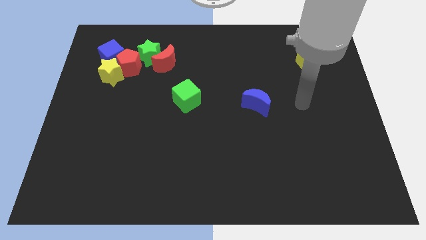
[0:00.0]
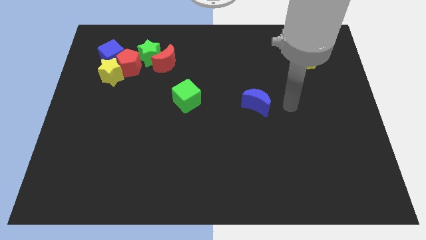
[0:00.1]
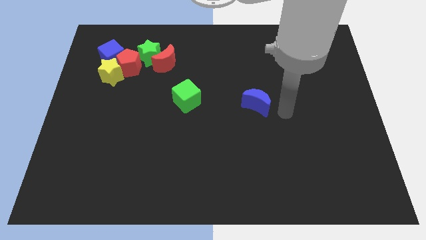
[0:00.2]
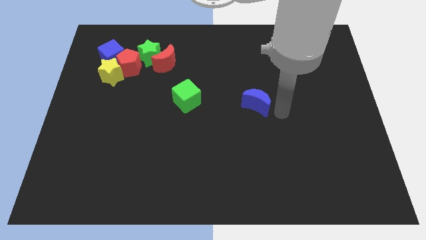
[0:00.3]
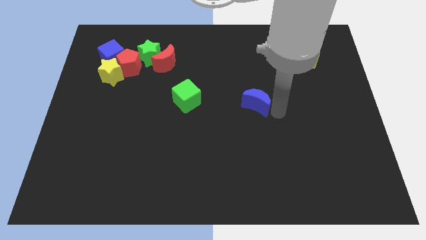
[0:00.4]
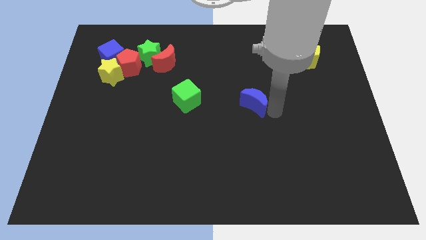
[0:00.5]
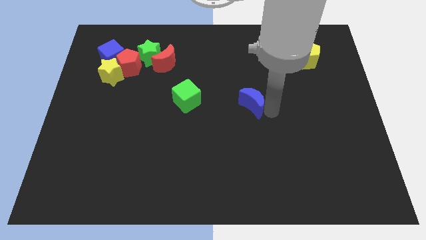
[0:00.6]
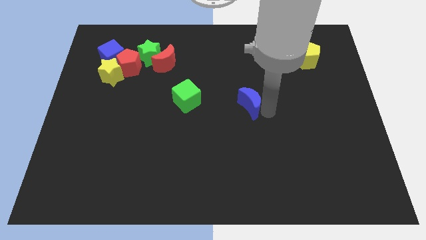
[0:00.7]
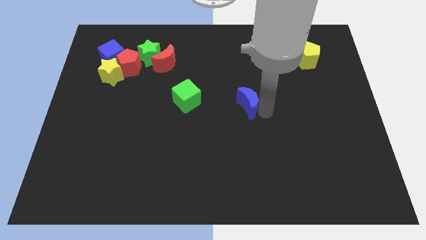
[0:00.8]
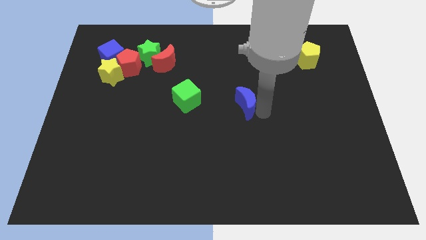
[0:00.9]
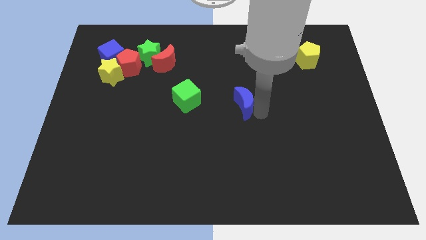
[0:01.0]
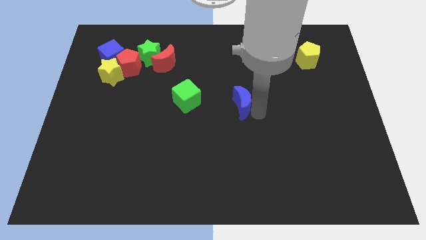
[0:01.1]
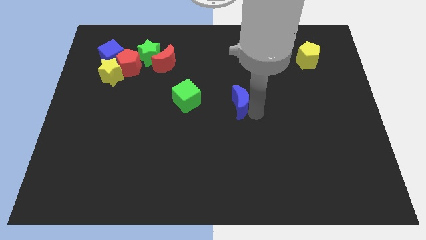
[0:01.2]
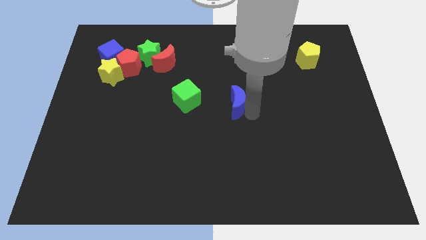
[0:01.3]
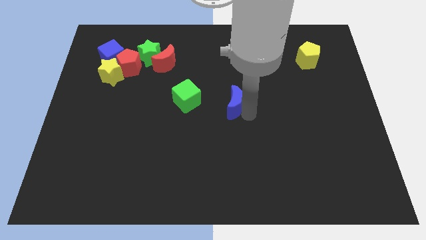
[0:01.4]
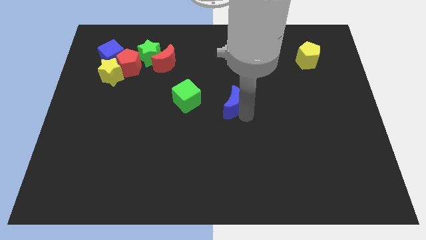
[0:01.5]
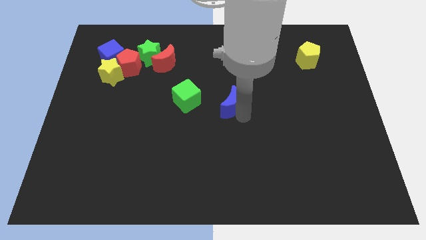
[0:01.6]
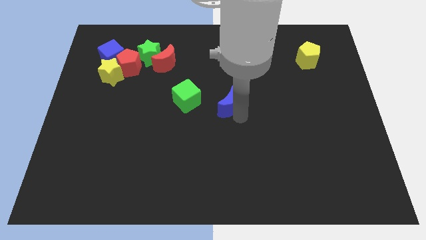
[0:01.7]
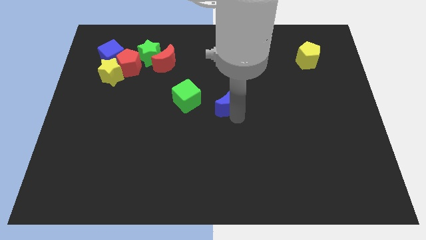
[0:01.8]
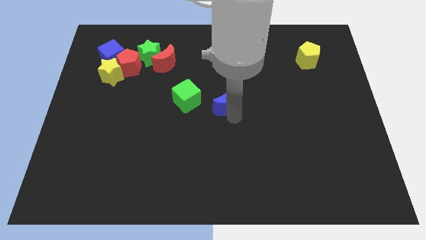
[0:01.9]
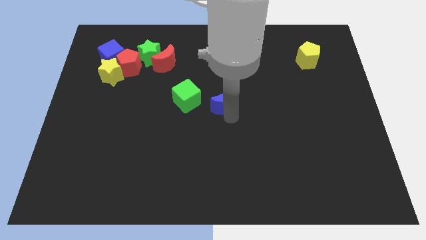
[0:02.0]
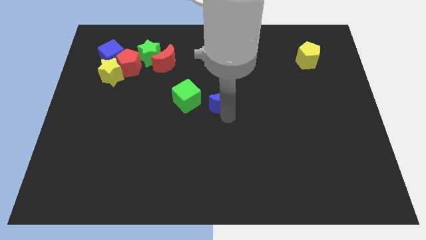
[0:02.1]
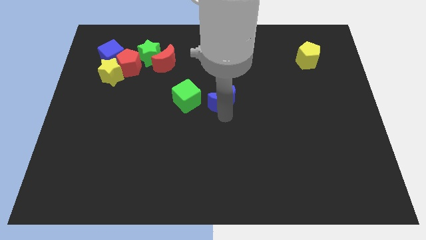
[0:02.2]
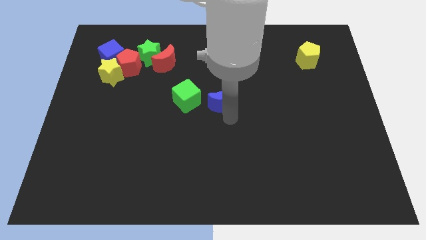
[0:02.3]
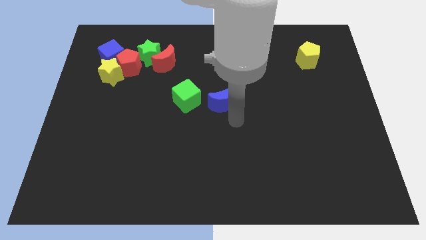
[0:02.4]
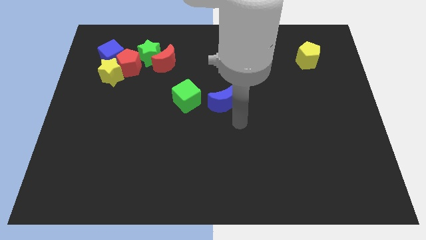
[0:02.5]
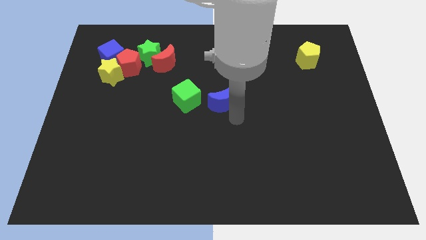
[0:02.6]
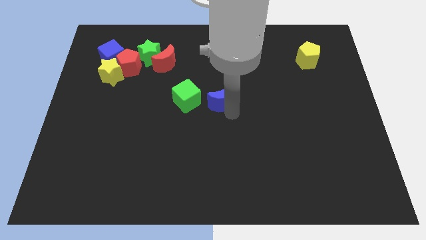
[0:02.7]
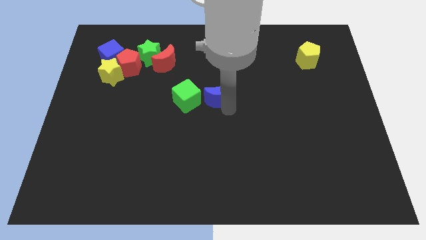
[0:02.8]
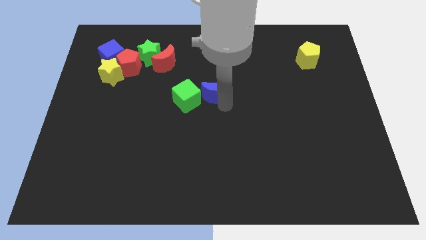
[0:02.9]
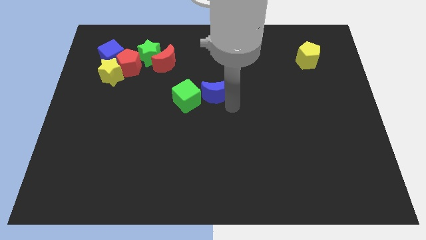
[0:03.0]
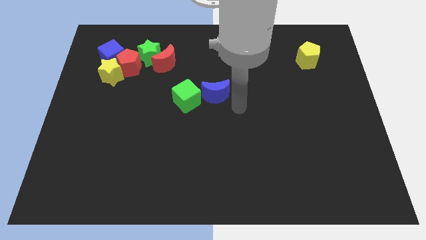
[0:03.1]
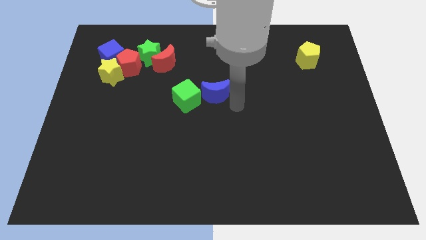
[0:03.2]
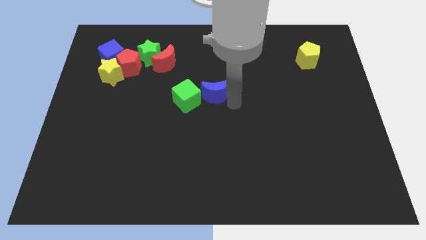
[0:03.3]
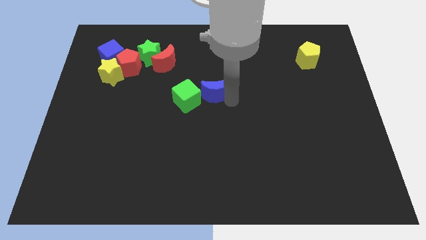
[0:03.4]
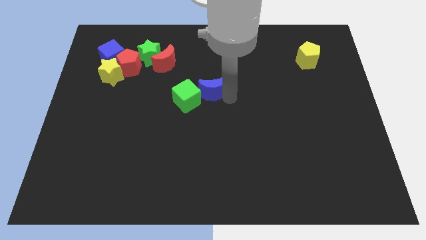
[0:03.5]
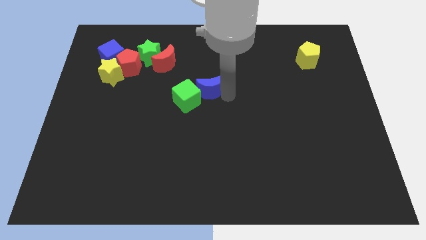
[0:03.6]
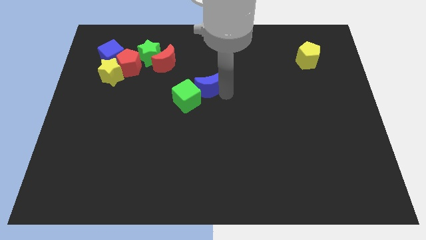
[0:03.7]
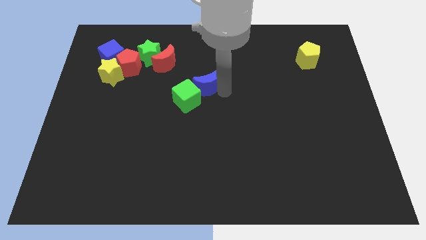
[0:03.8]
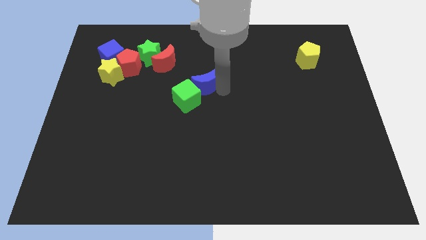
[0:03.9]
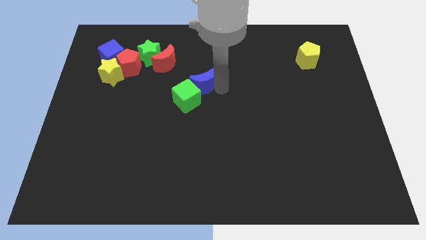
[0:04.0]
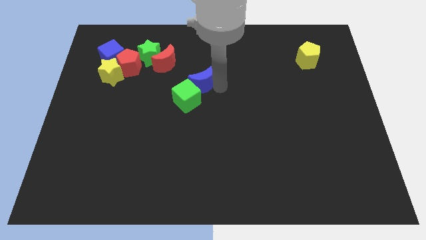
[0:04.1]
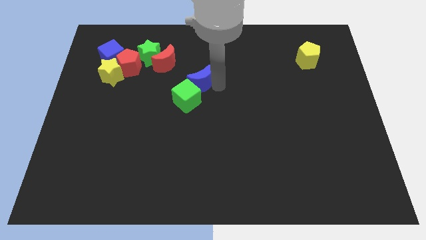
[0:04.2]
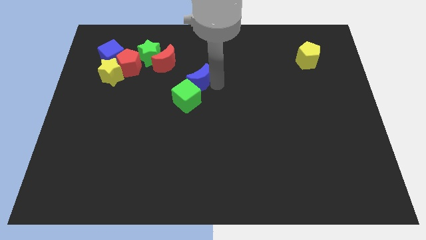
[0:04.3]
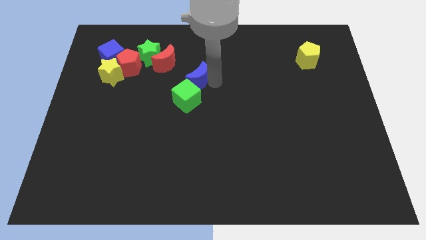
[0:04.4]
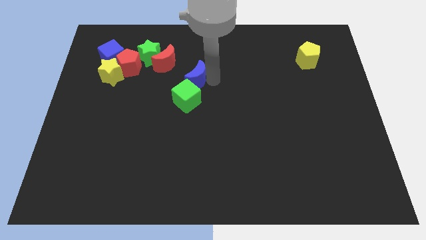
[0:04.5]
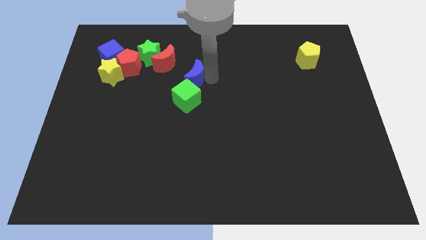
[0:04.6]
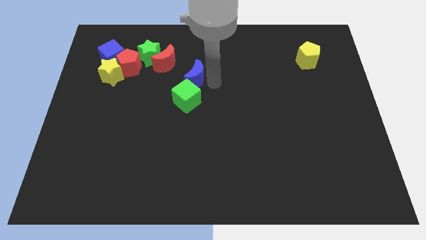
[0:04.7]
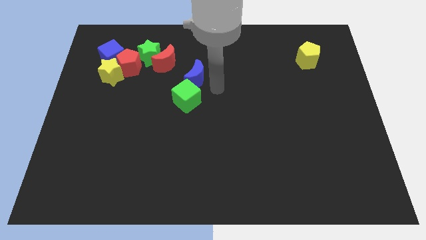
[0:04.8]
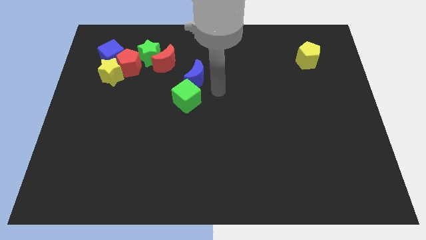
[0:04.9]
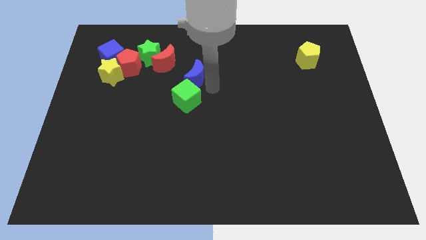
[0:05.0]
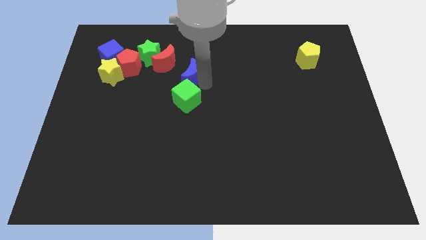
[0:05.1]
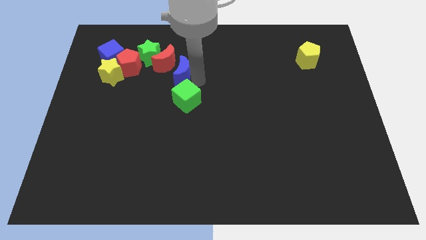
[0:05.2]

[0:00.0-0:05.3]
move the blue moon close to the red moon

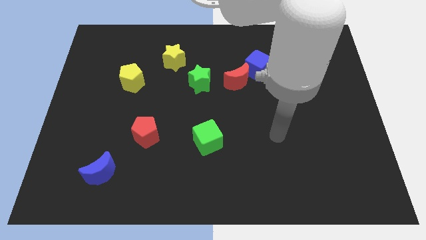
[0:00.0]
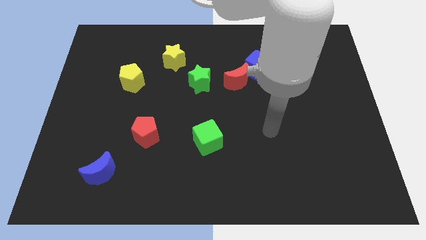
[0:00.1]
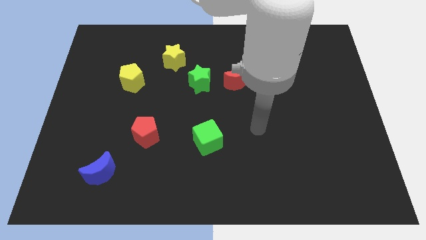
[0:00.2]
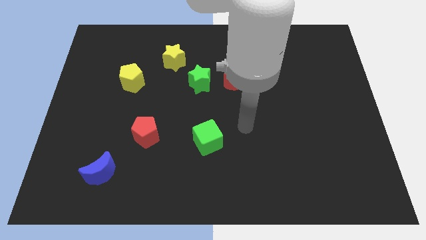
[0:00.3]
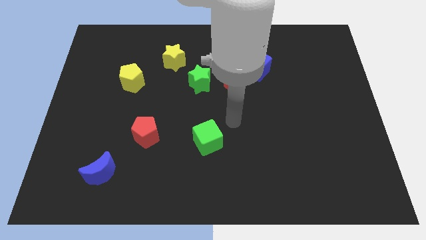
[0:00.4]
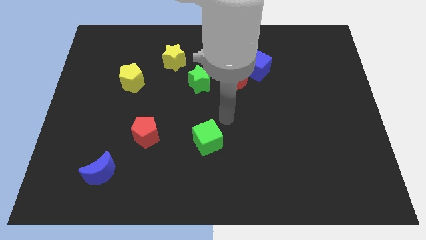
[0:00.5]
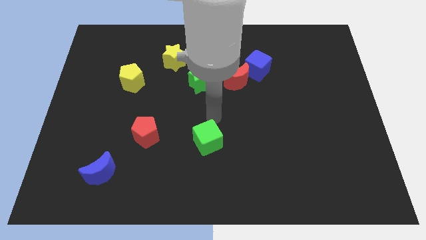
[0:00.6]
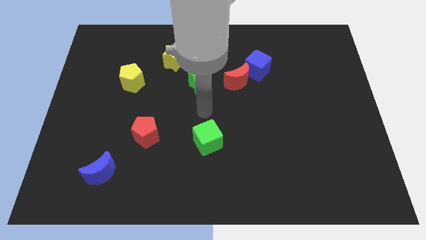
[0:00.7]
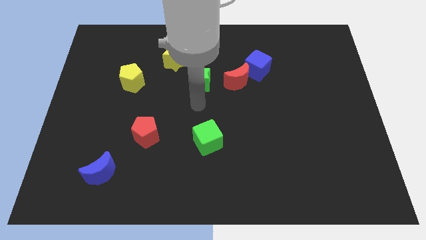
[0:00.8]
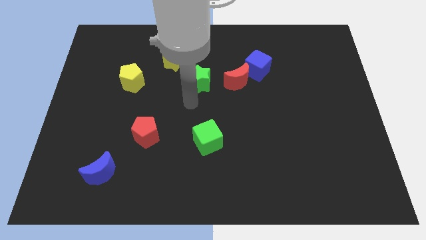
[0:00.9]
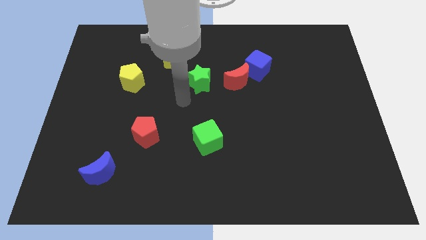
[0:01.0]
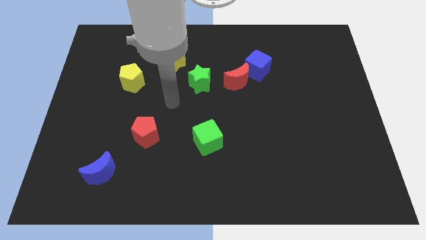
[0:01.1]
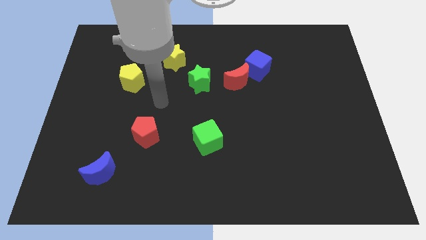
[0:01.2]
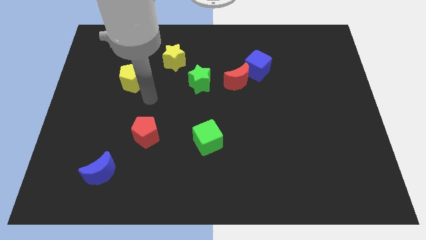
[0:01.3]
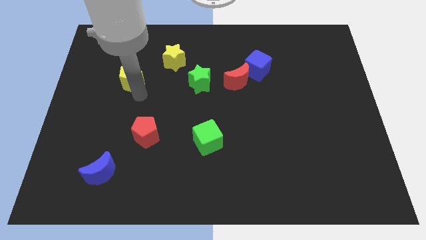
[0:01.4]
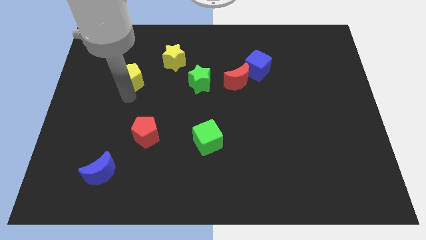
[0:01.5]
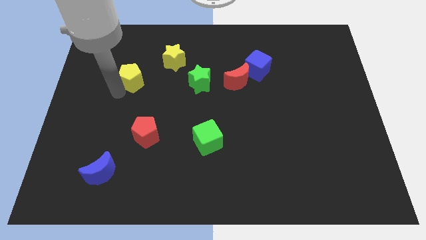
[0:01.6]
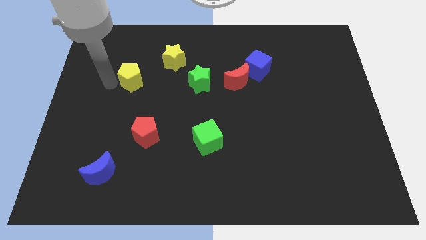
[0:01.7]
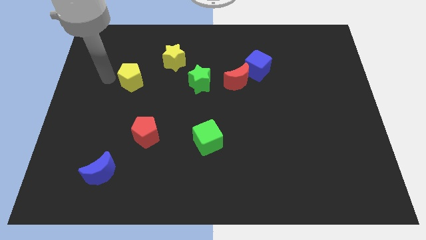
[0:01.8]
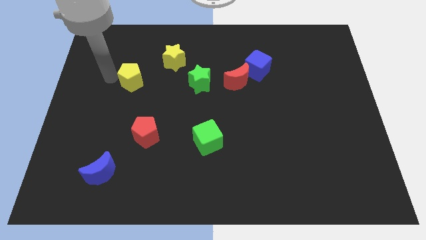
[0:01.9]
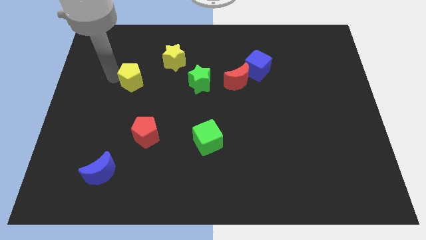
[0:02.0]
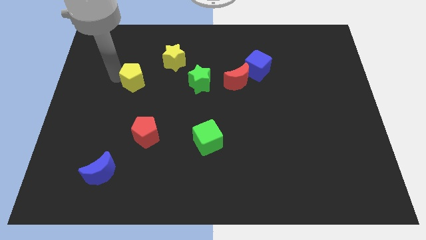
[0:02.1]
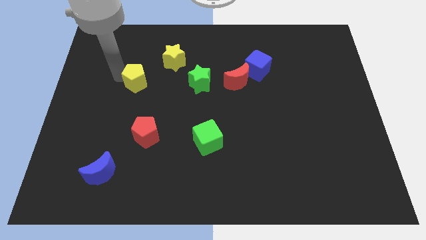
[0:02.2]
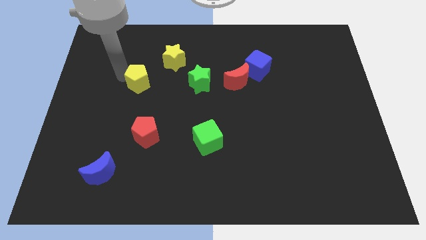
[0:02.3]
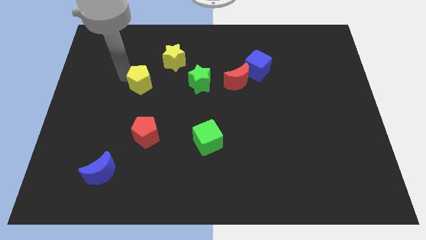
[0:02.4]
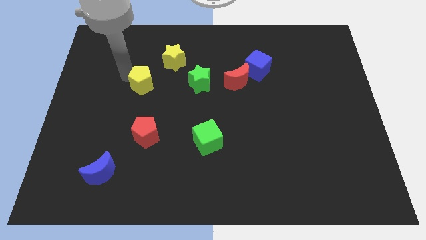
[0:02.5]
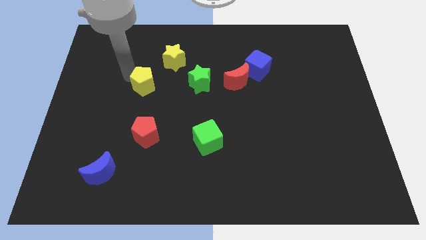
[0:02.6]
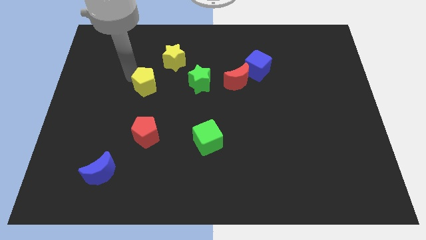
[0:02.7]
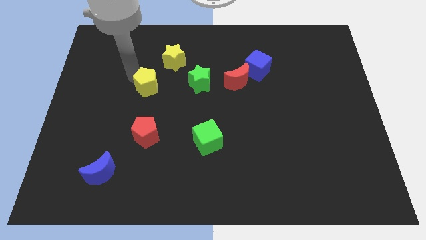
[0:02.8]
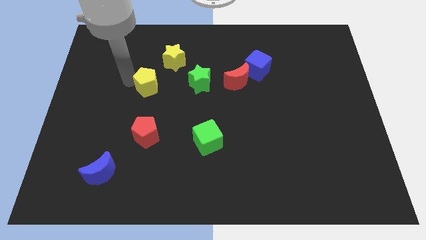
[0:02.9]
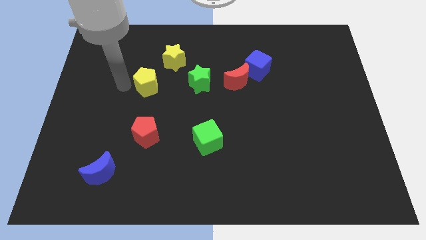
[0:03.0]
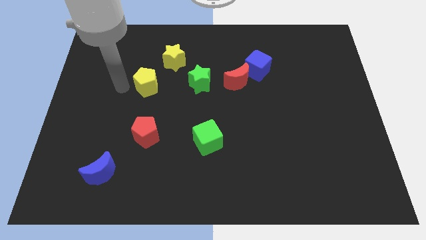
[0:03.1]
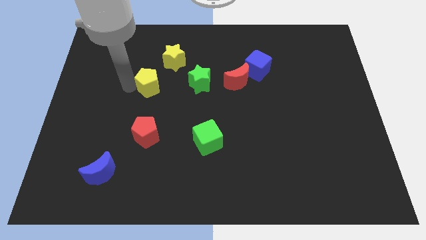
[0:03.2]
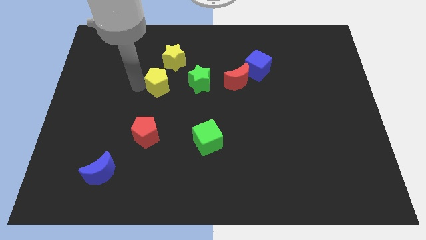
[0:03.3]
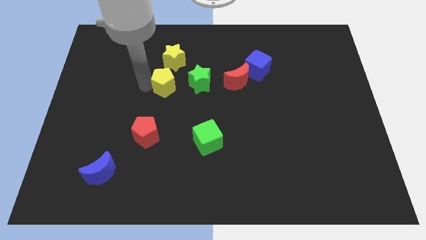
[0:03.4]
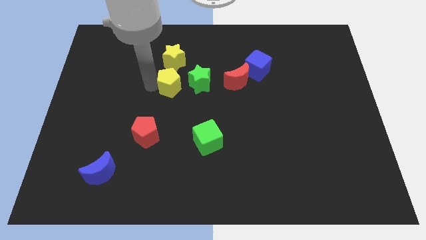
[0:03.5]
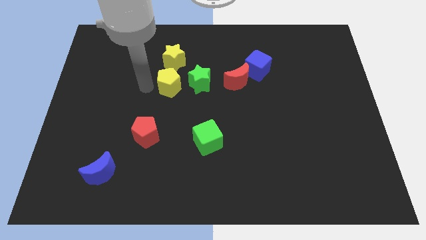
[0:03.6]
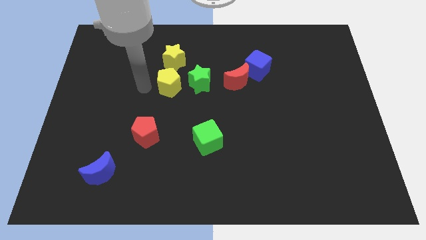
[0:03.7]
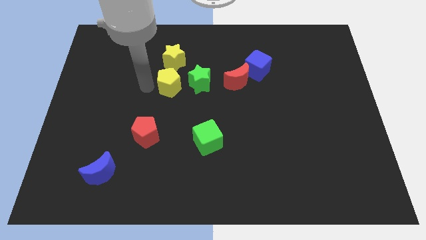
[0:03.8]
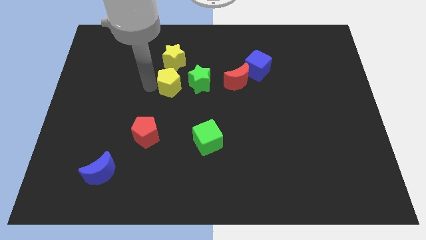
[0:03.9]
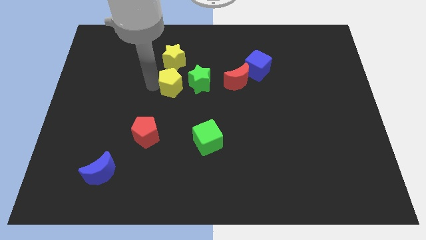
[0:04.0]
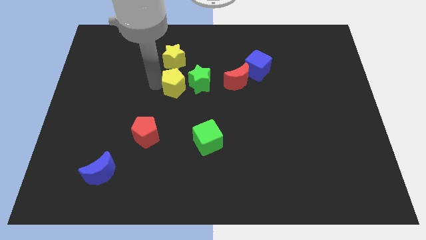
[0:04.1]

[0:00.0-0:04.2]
put the yellow pentagon next to the green star
